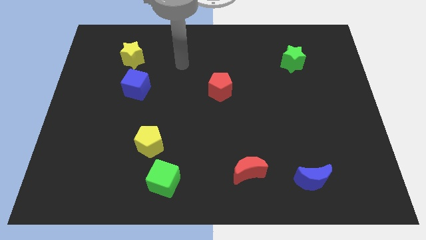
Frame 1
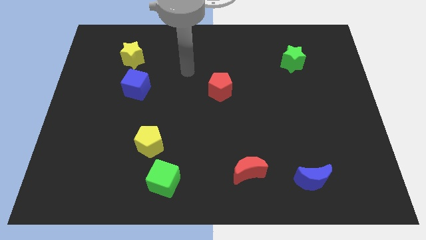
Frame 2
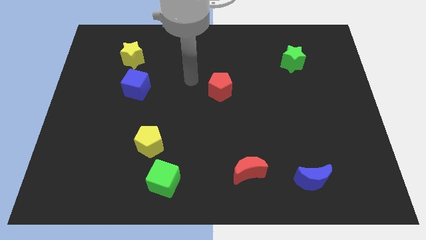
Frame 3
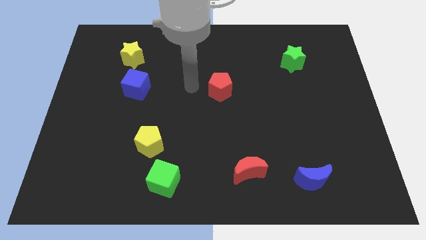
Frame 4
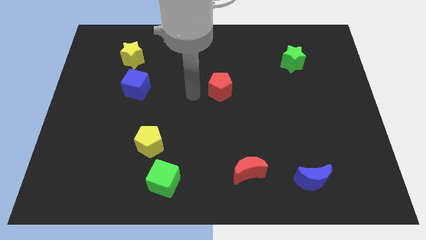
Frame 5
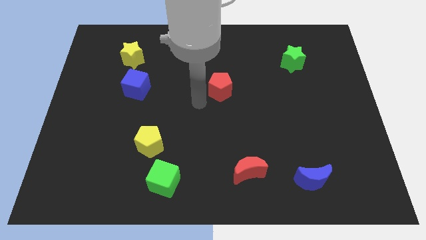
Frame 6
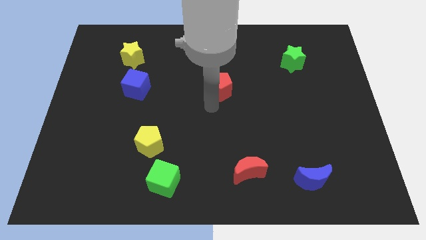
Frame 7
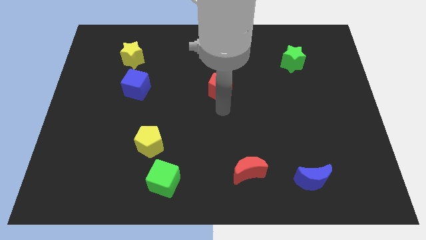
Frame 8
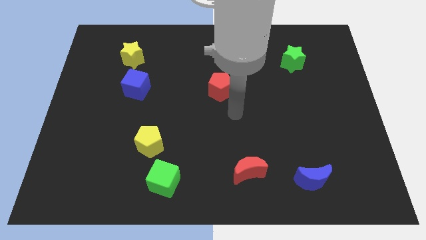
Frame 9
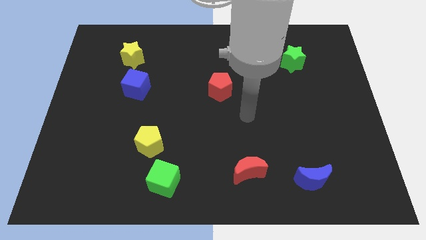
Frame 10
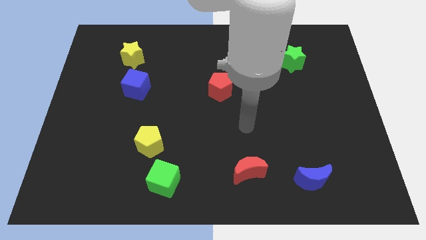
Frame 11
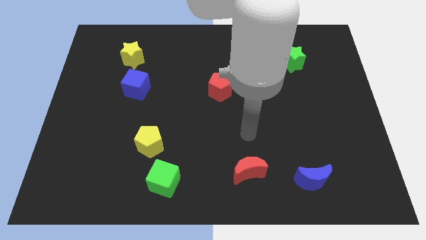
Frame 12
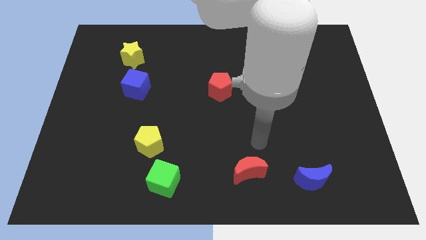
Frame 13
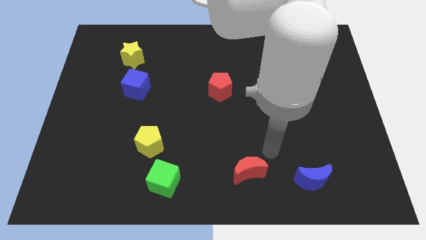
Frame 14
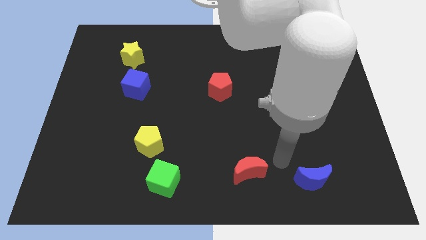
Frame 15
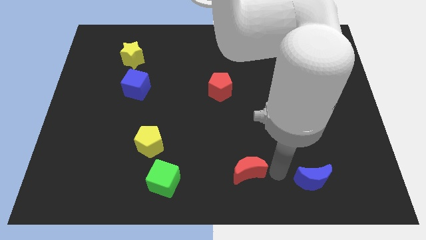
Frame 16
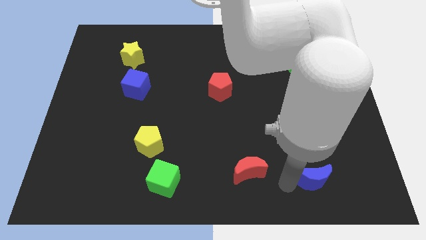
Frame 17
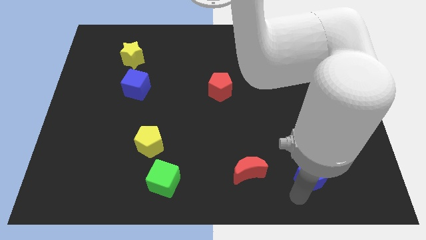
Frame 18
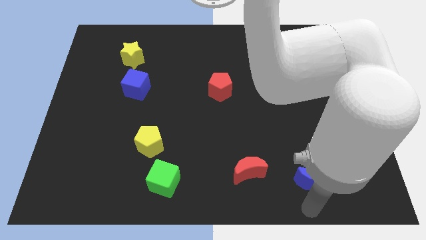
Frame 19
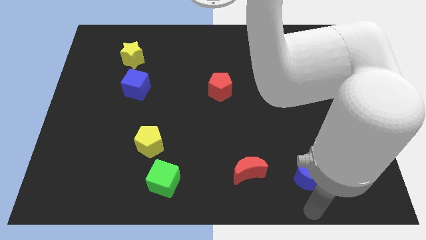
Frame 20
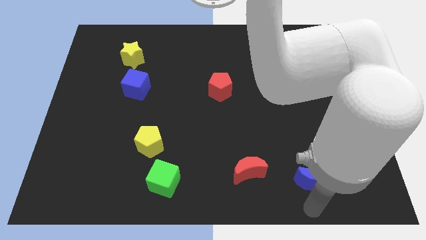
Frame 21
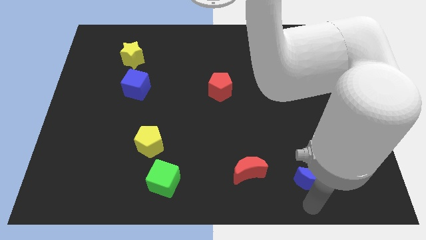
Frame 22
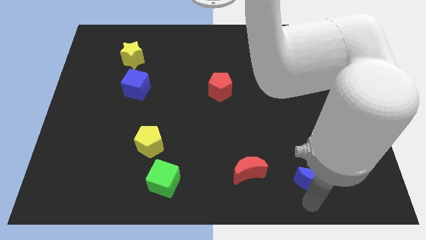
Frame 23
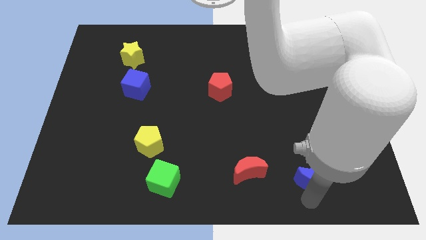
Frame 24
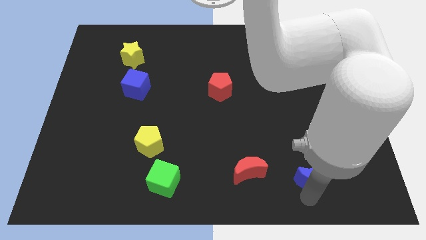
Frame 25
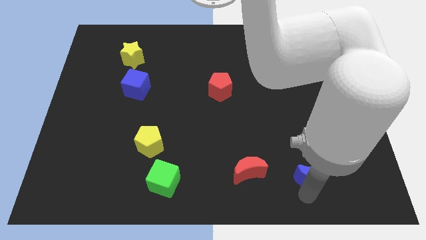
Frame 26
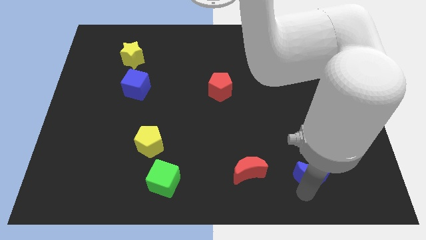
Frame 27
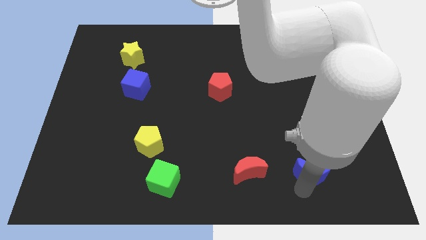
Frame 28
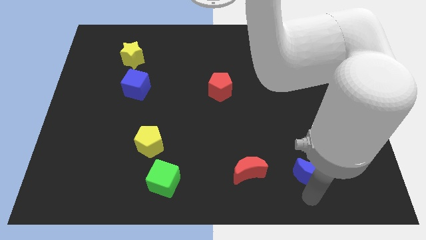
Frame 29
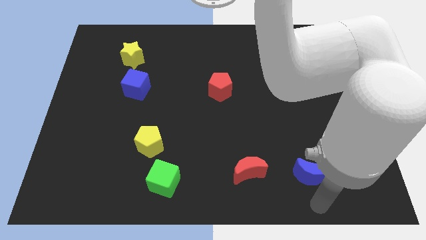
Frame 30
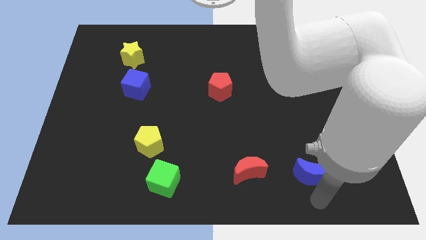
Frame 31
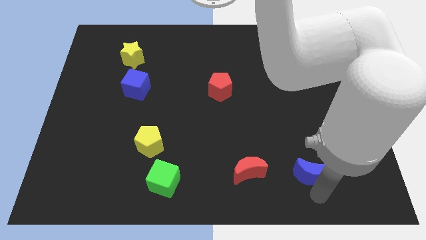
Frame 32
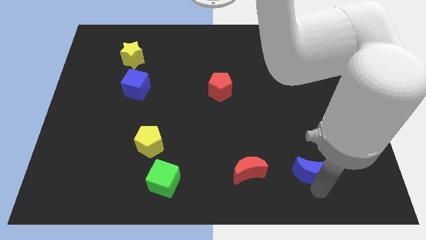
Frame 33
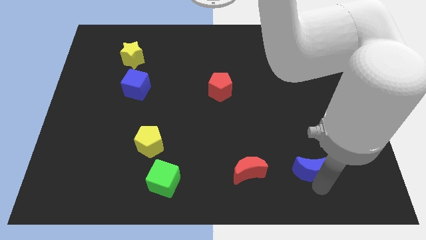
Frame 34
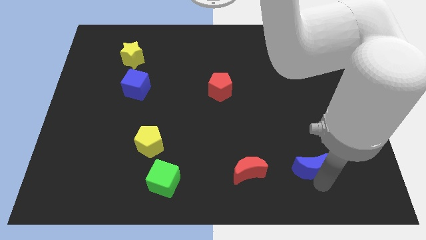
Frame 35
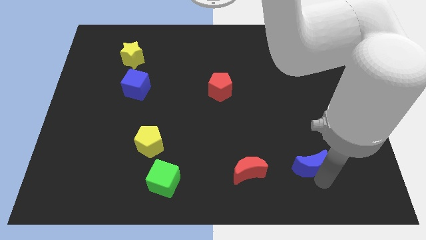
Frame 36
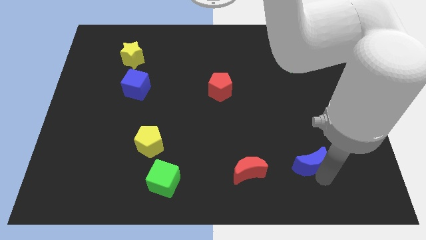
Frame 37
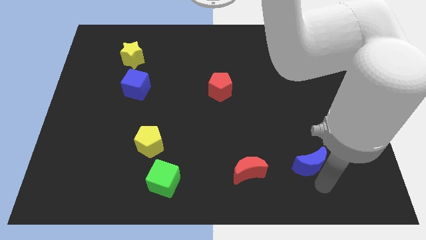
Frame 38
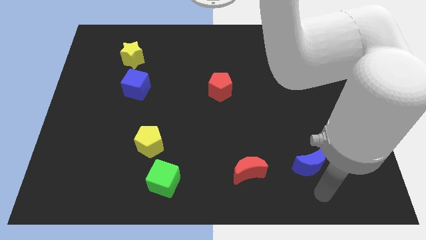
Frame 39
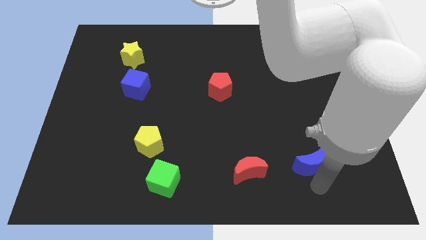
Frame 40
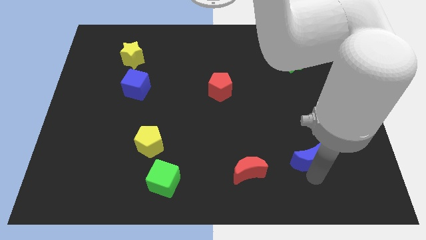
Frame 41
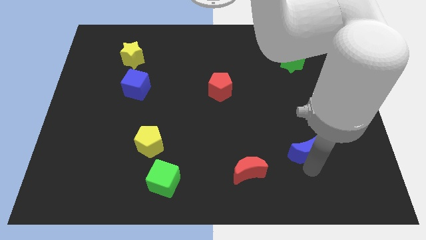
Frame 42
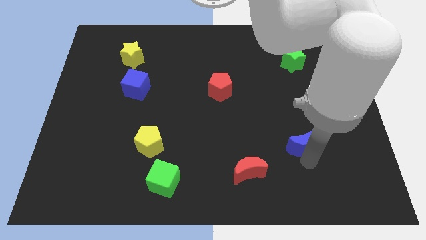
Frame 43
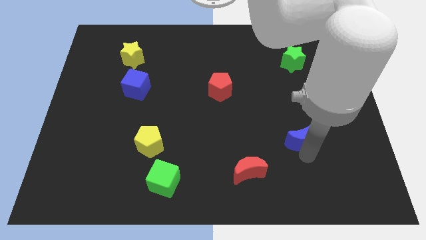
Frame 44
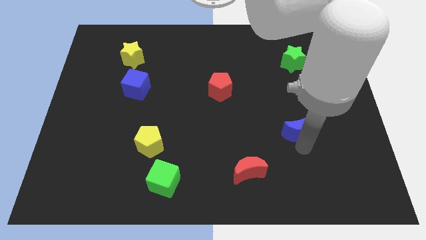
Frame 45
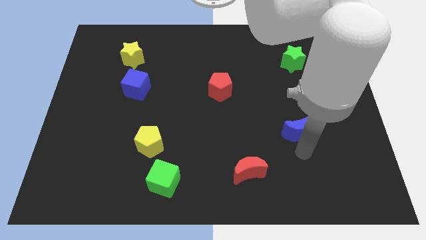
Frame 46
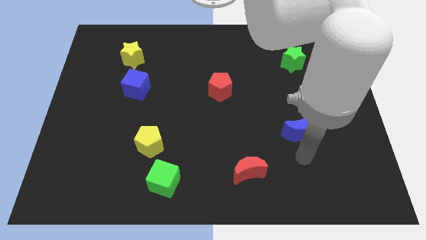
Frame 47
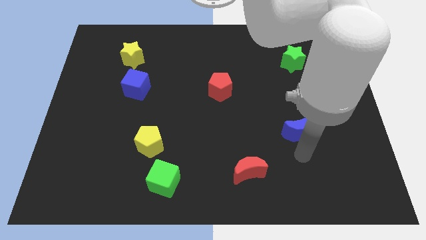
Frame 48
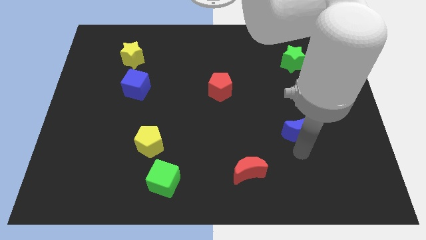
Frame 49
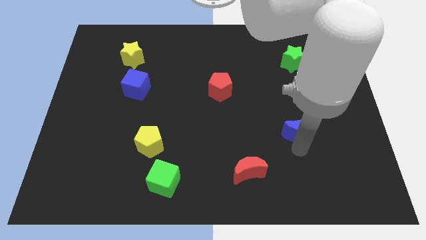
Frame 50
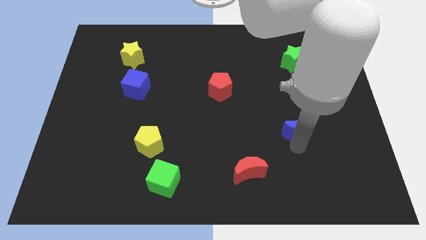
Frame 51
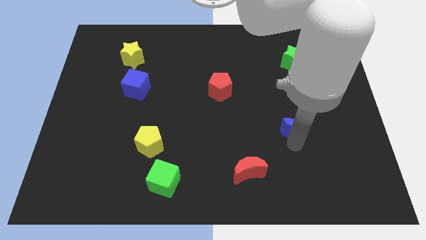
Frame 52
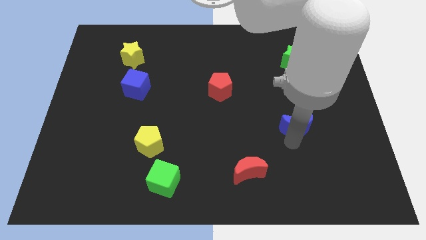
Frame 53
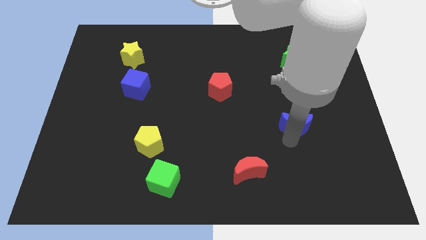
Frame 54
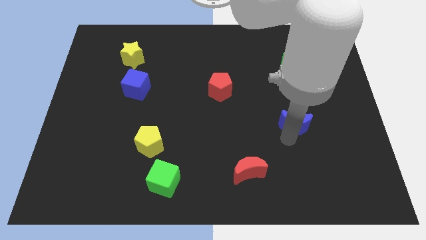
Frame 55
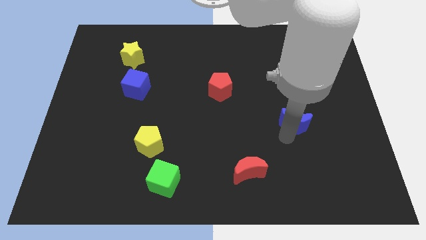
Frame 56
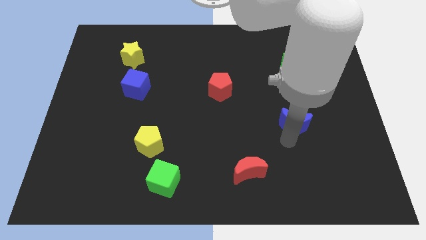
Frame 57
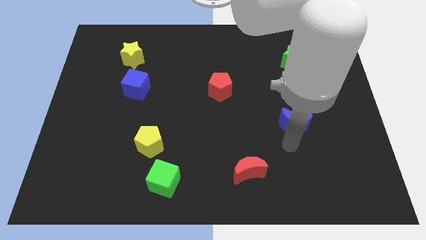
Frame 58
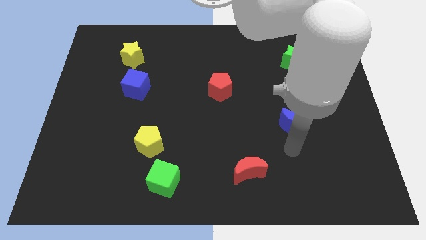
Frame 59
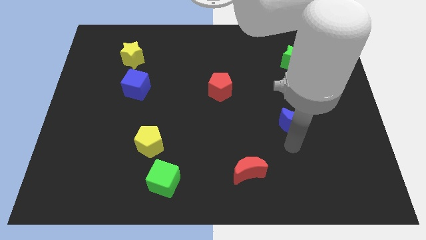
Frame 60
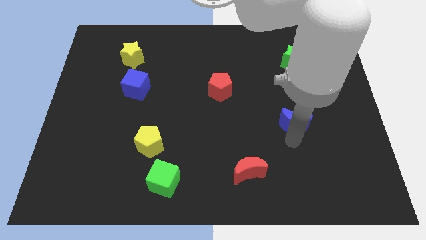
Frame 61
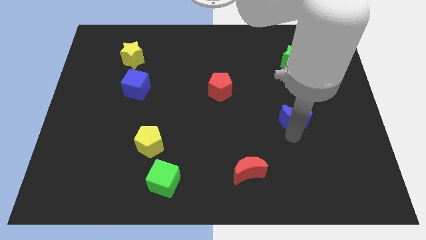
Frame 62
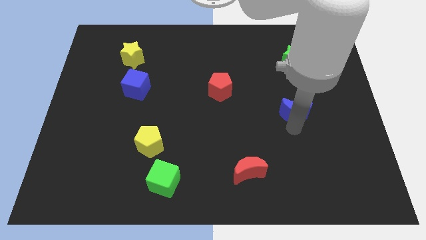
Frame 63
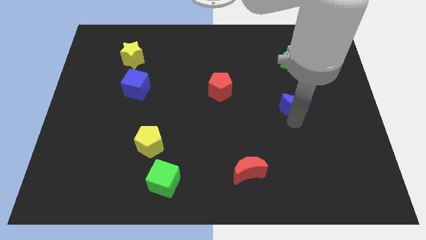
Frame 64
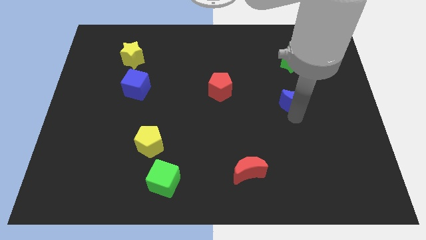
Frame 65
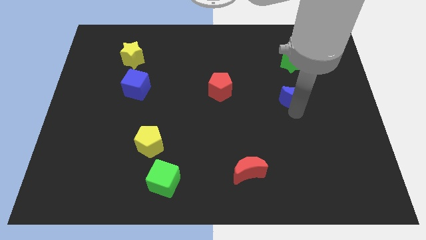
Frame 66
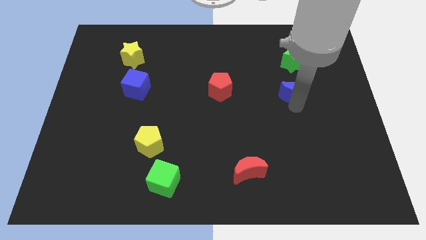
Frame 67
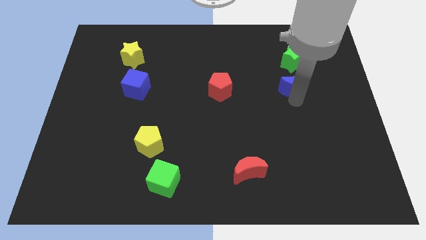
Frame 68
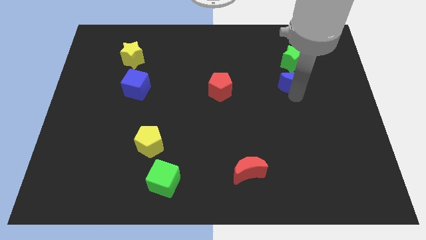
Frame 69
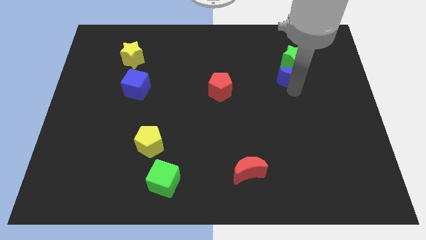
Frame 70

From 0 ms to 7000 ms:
slide the blue moon to the green star

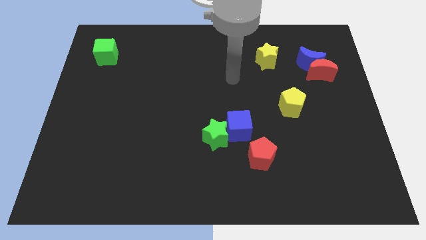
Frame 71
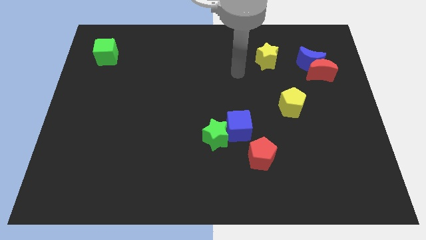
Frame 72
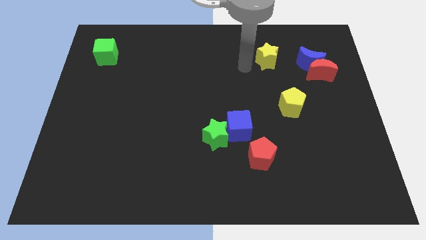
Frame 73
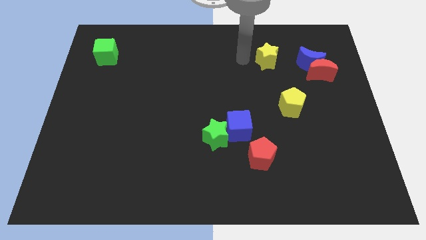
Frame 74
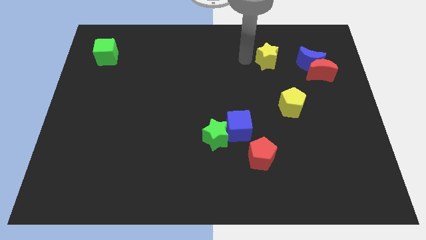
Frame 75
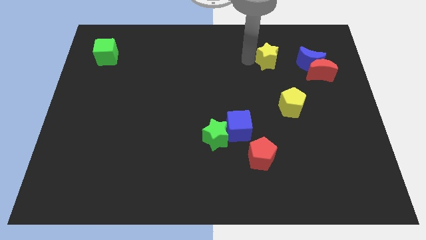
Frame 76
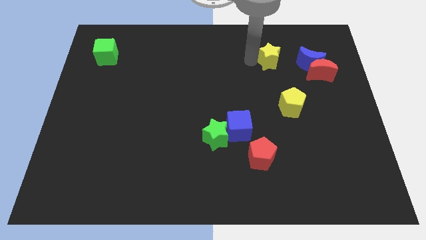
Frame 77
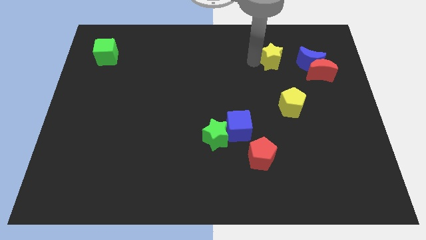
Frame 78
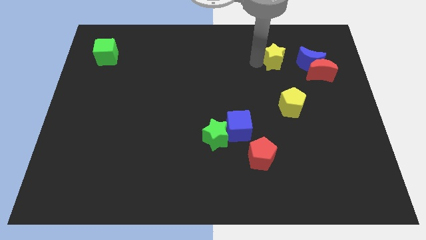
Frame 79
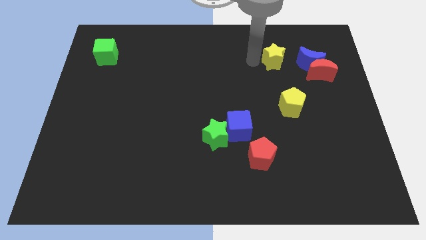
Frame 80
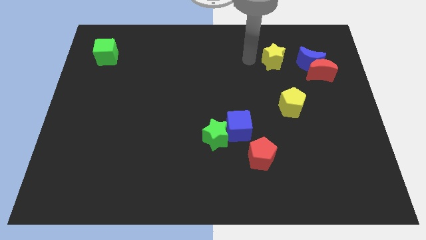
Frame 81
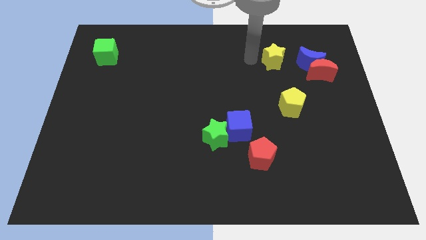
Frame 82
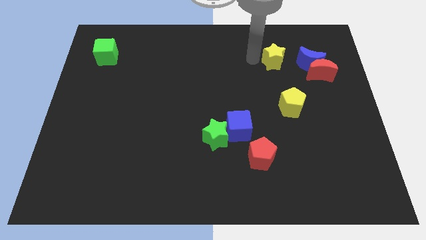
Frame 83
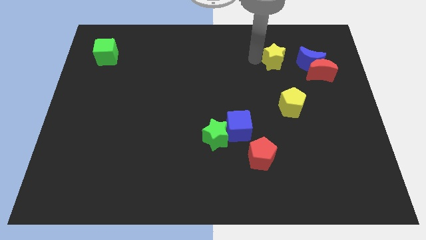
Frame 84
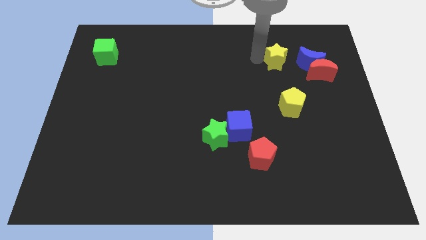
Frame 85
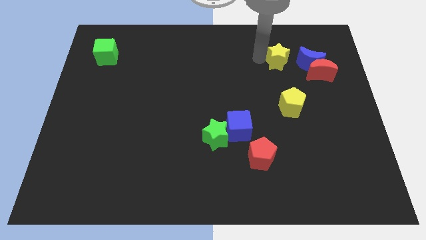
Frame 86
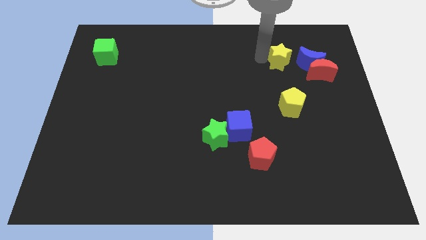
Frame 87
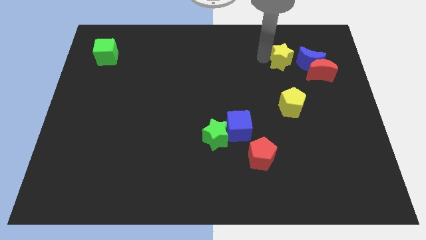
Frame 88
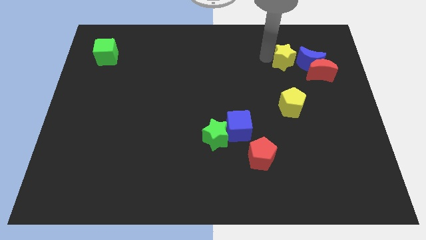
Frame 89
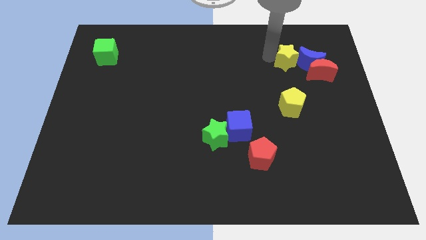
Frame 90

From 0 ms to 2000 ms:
move the yellow star next to the blue moon
